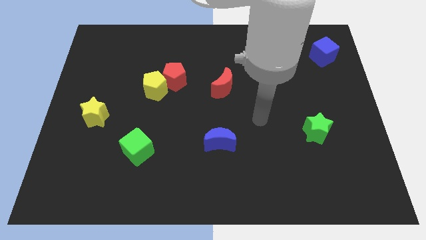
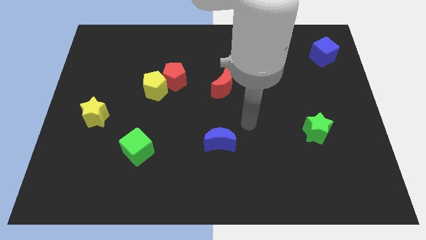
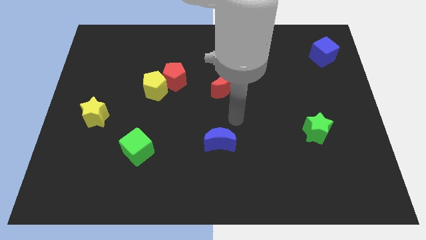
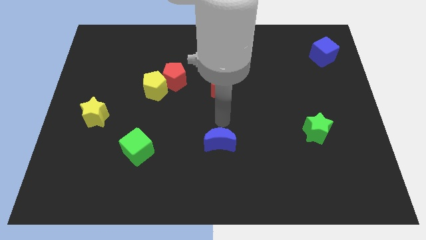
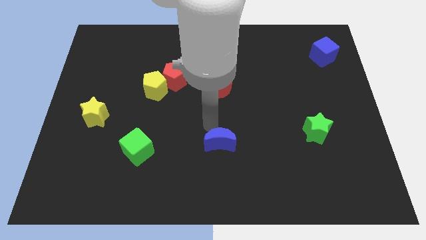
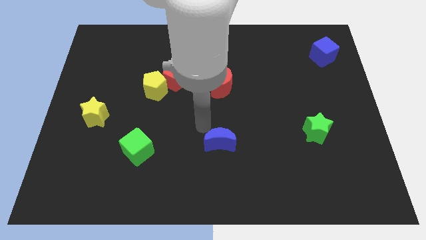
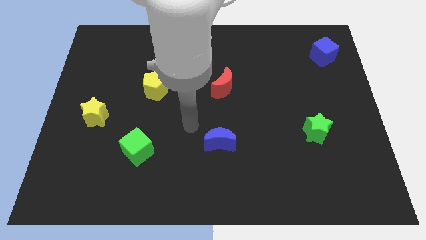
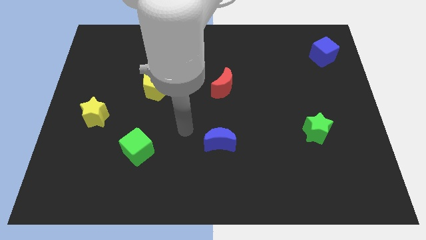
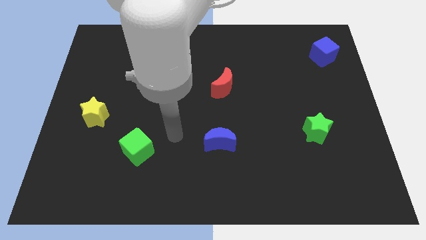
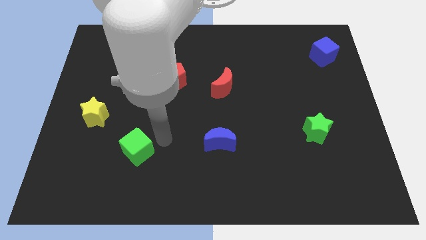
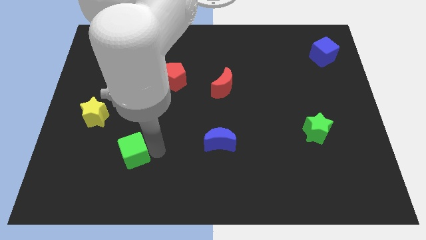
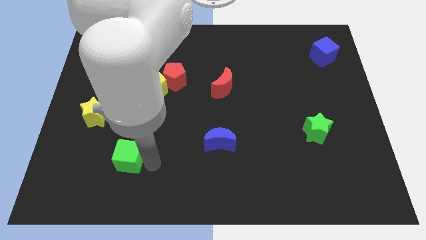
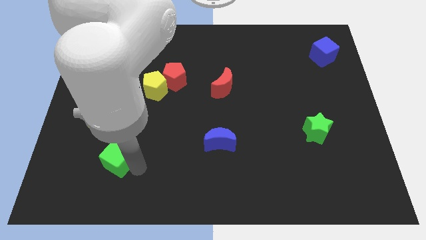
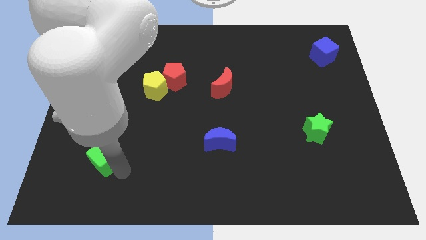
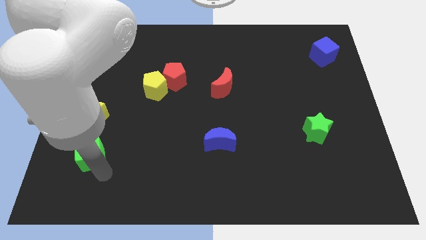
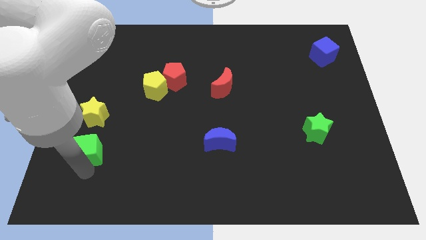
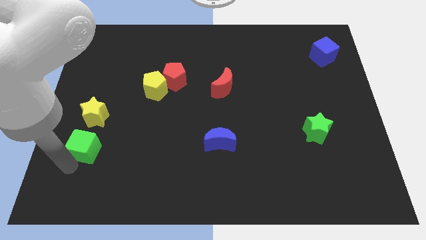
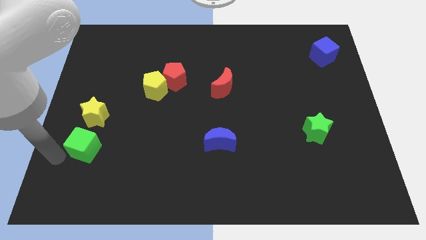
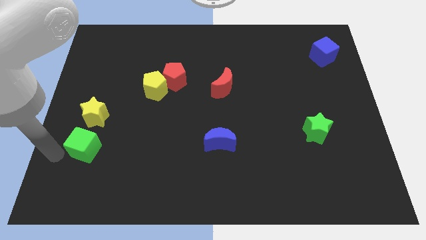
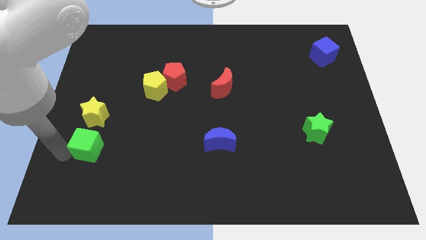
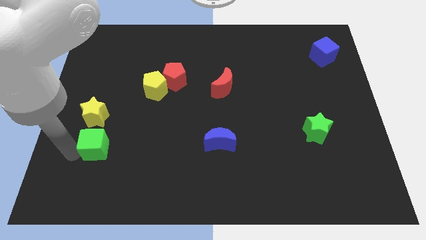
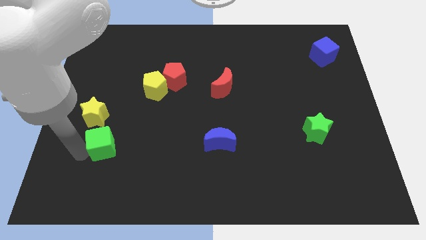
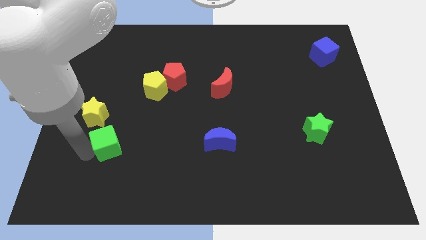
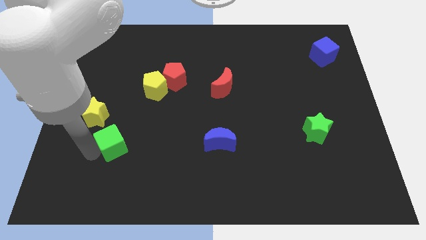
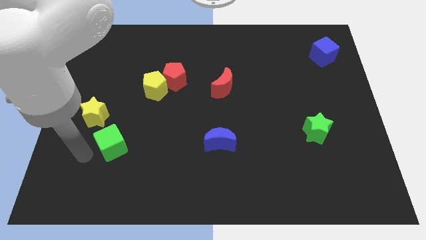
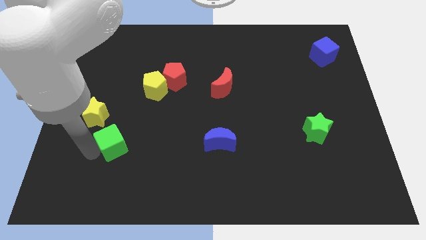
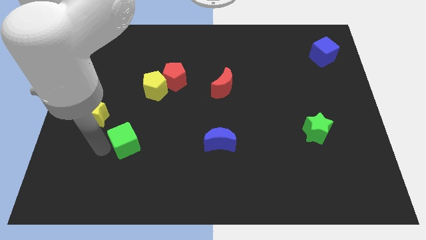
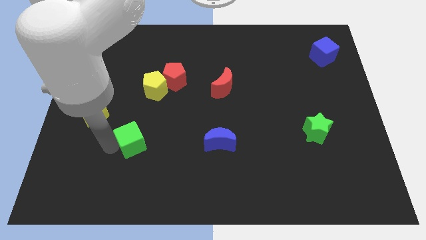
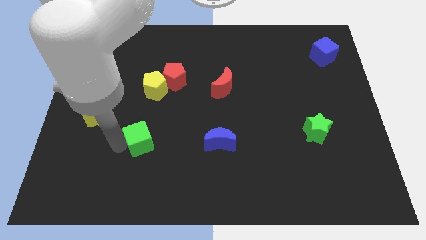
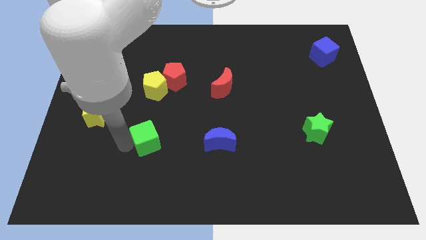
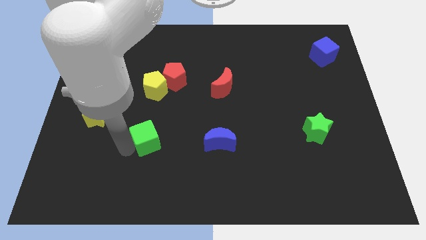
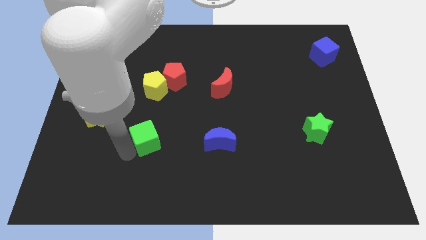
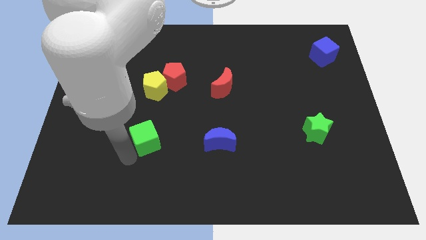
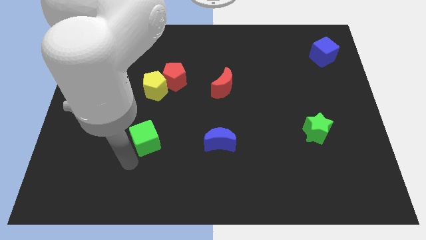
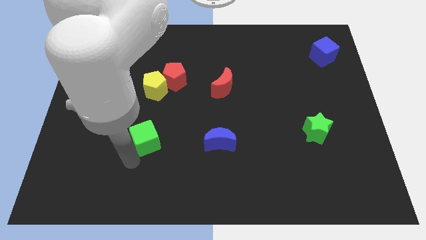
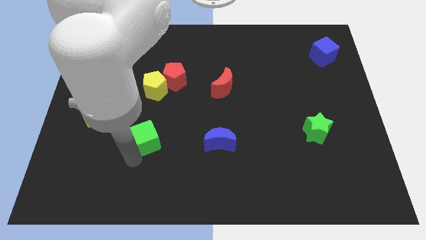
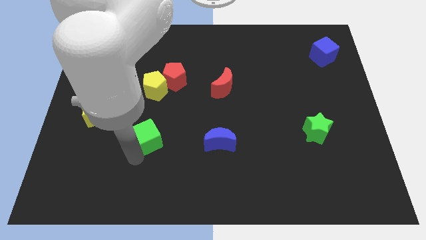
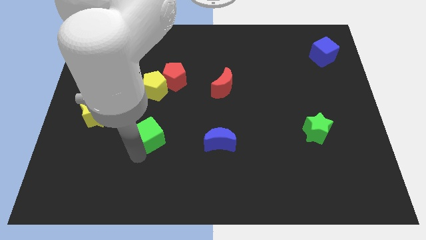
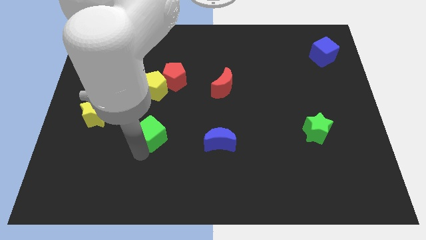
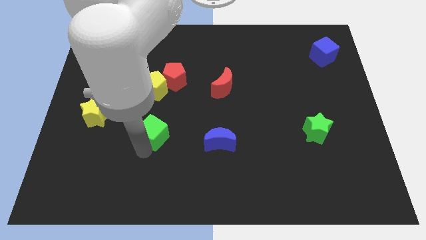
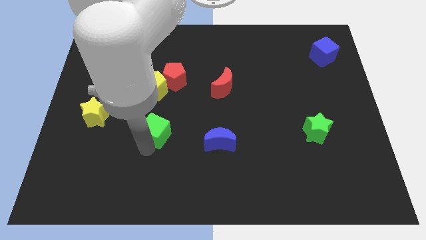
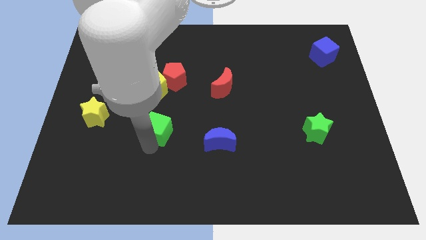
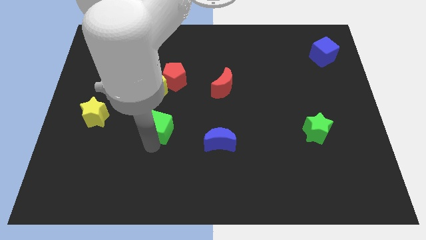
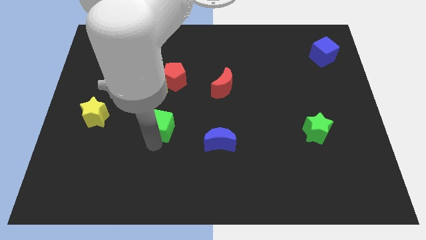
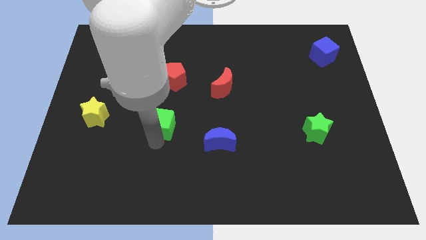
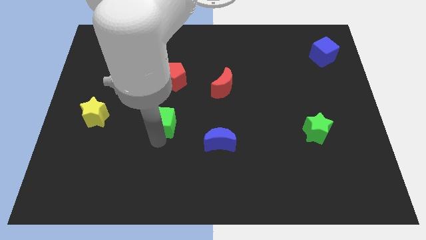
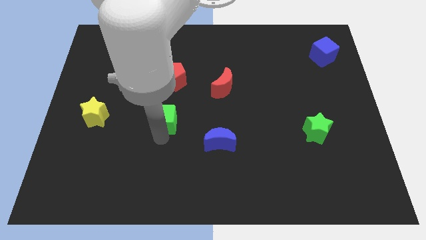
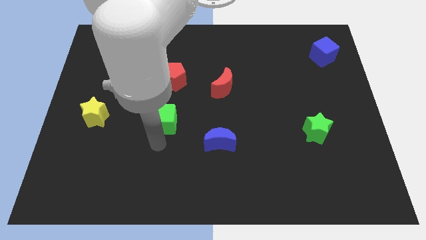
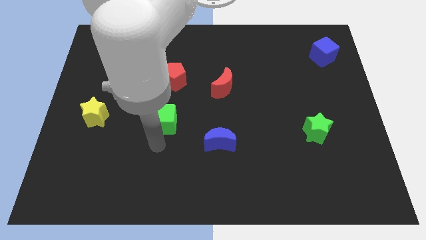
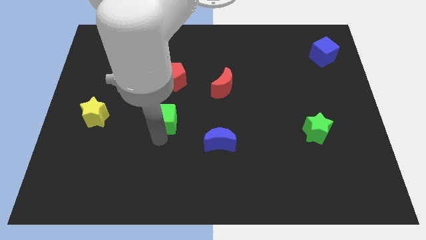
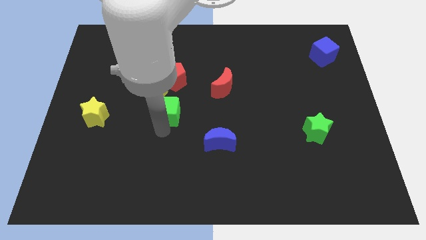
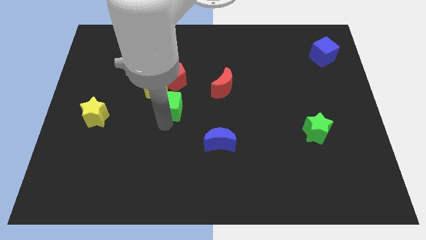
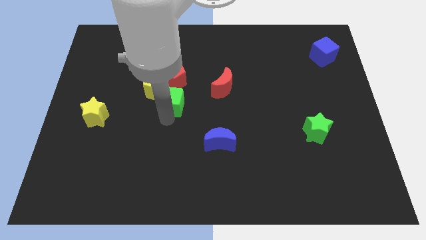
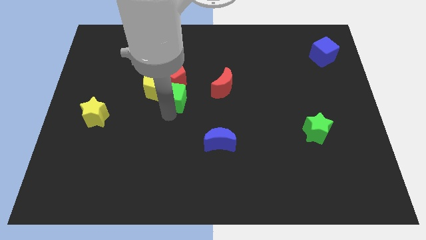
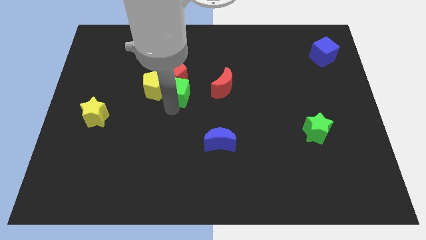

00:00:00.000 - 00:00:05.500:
slide the green cube to the red pentagon

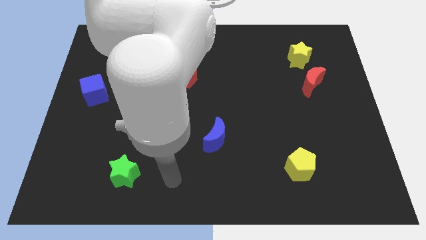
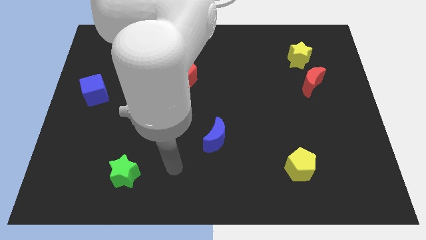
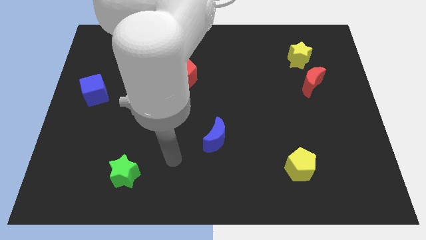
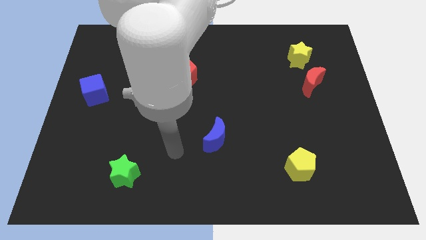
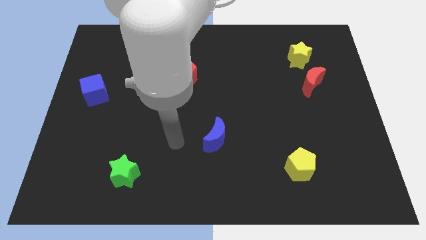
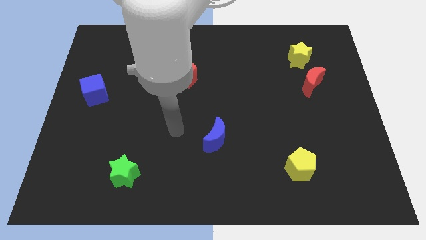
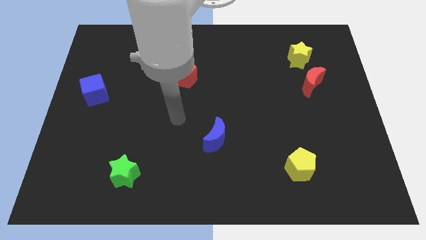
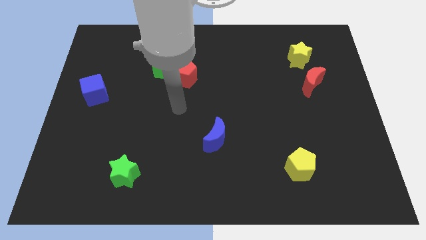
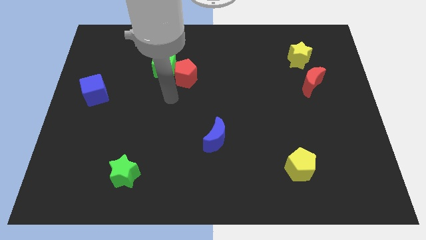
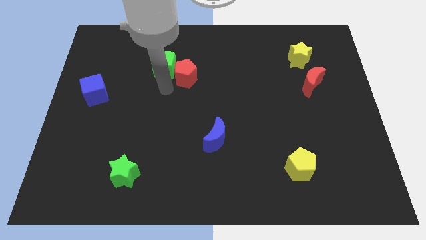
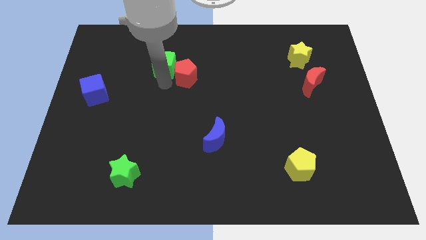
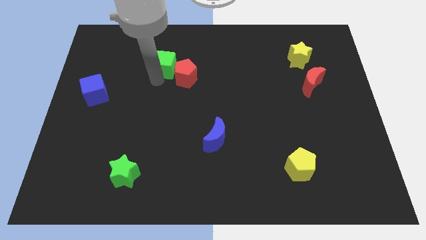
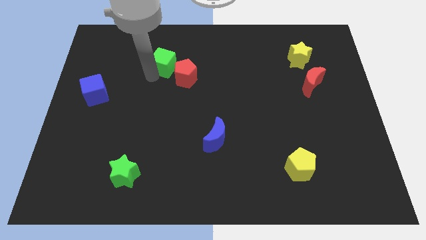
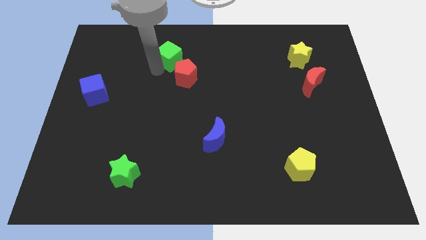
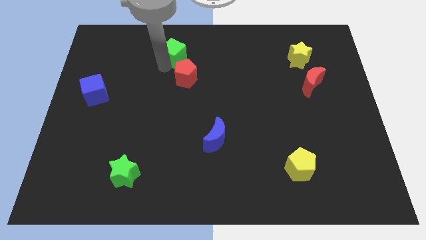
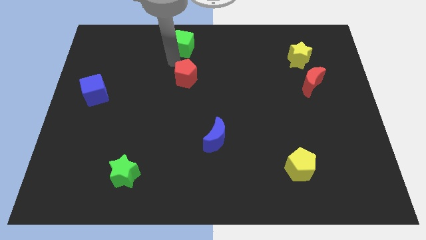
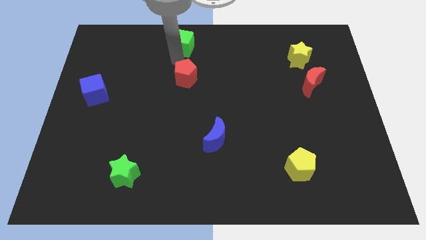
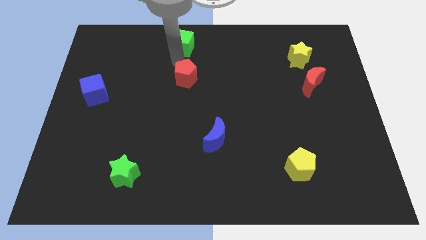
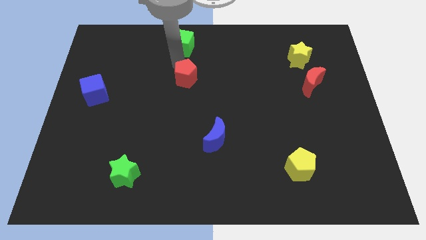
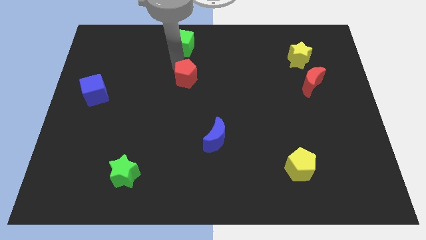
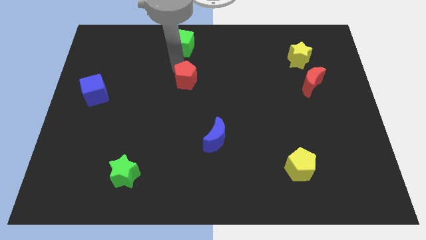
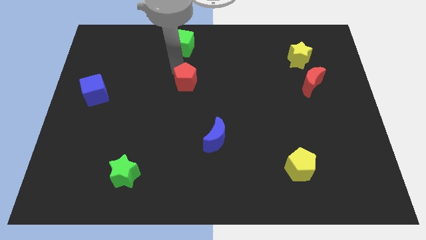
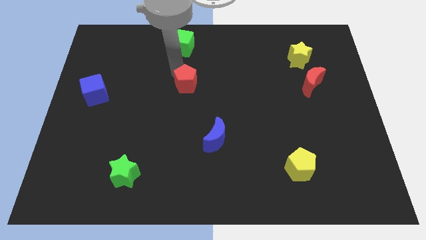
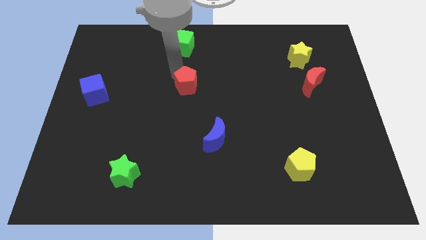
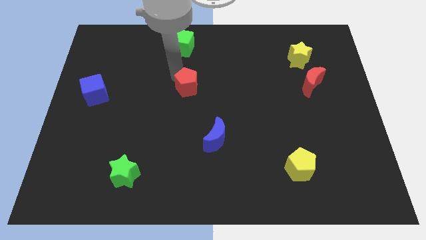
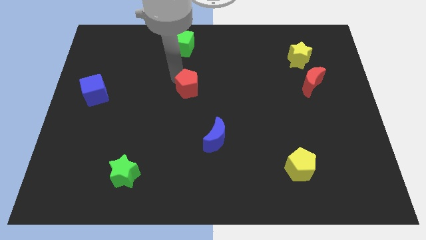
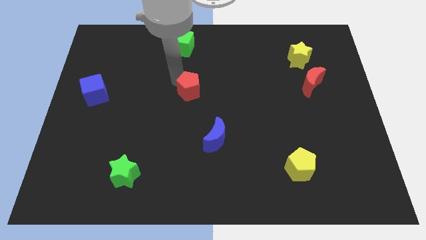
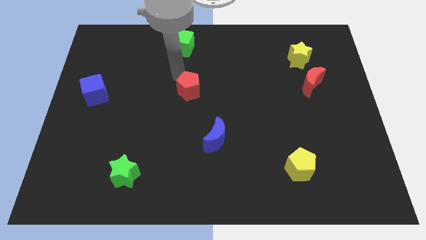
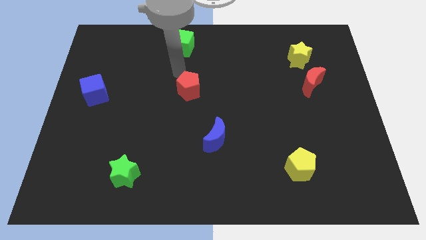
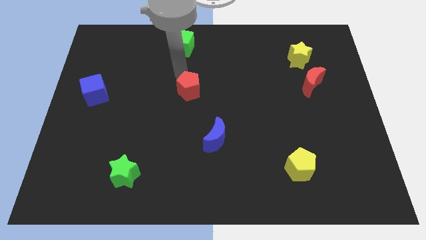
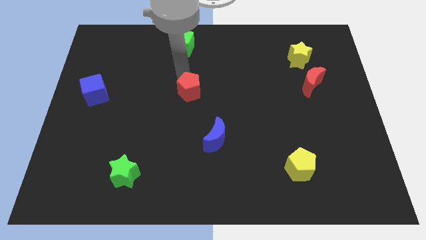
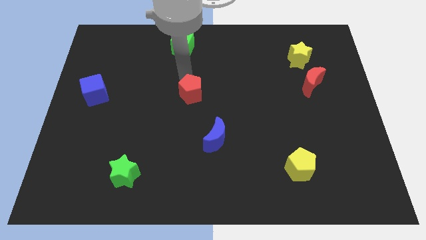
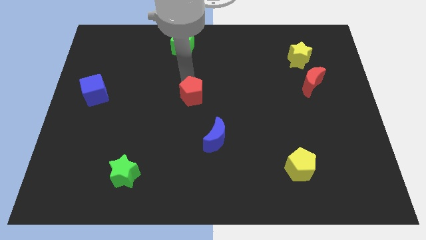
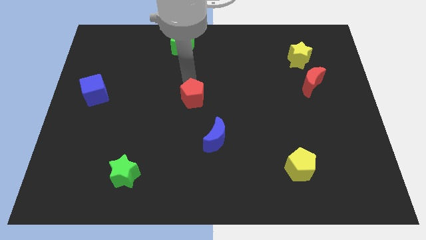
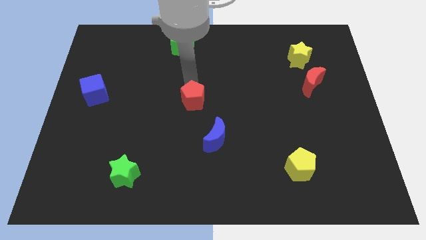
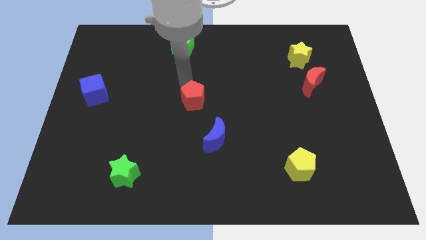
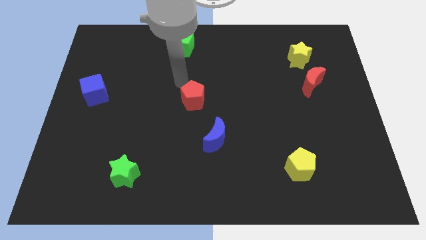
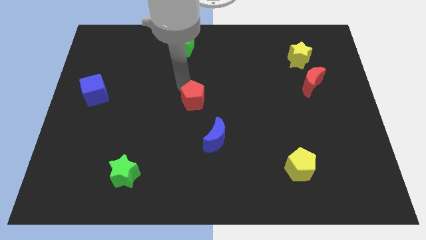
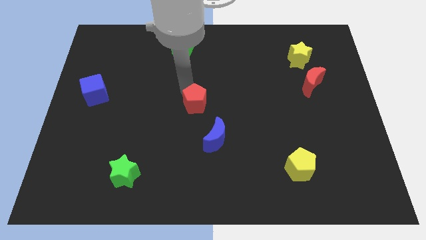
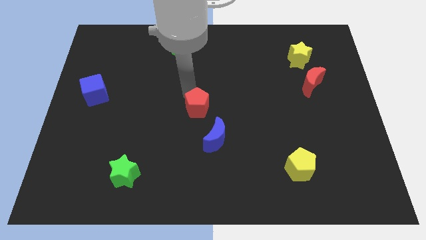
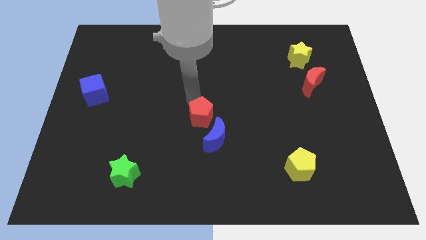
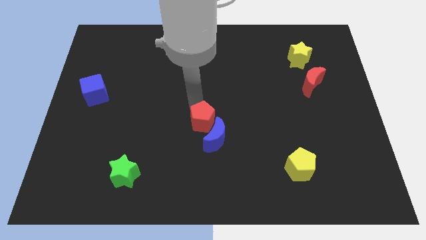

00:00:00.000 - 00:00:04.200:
push the red pentagon next to the blue moon
